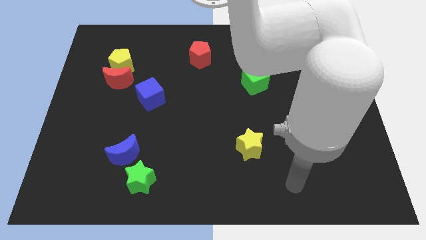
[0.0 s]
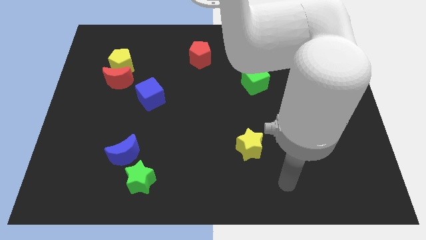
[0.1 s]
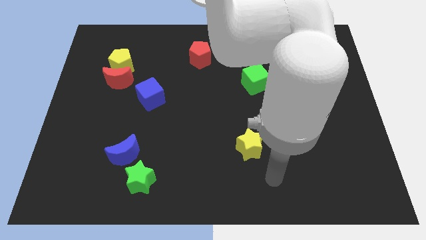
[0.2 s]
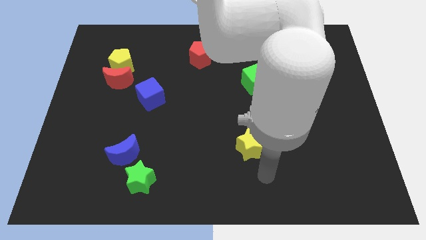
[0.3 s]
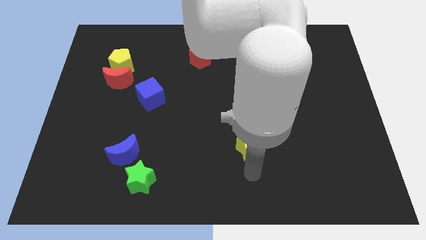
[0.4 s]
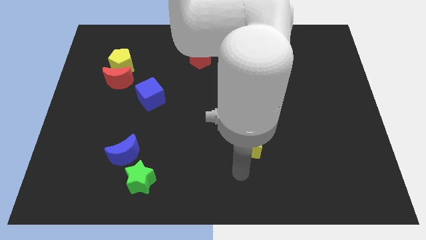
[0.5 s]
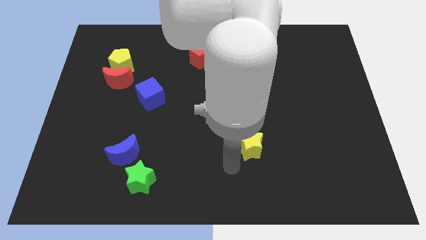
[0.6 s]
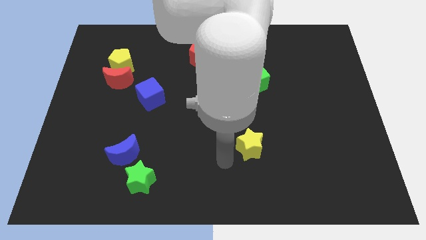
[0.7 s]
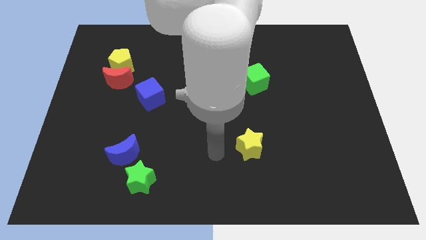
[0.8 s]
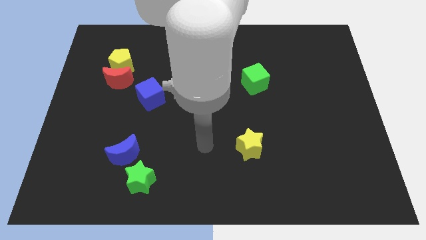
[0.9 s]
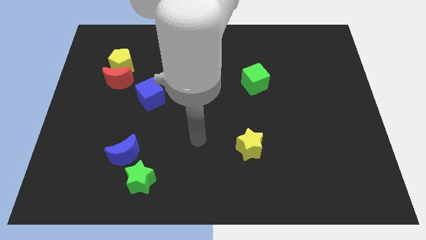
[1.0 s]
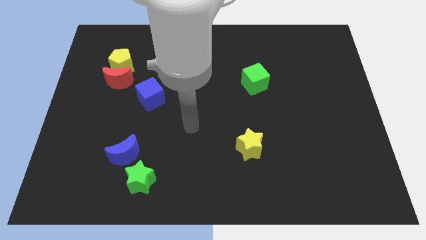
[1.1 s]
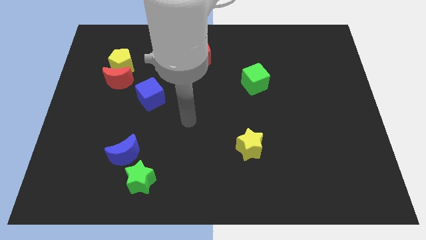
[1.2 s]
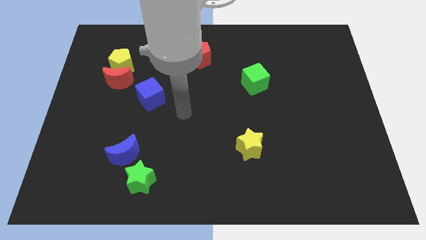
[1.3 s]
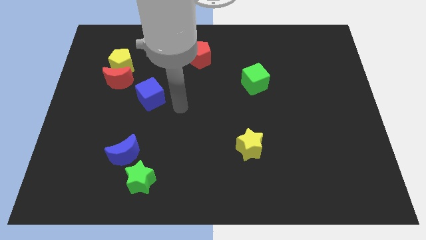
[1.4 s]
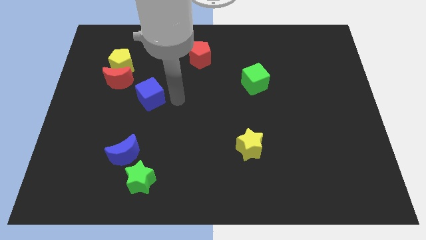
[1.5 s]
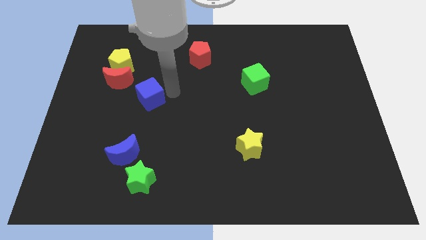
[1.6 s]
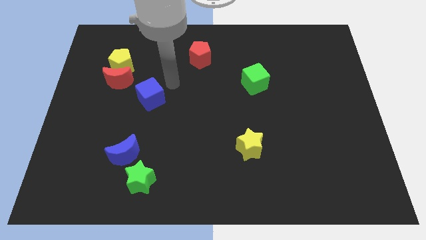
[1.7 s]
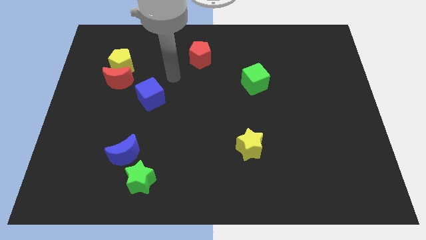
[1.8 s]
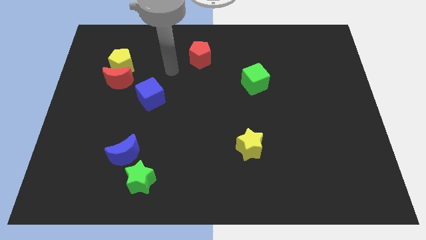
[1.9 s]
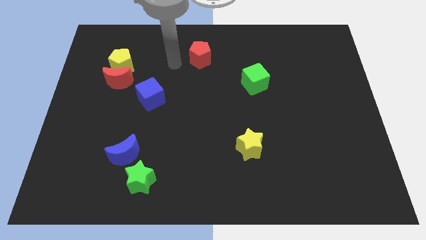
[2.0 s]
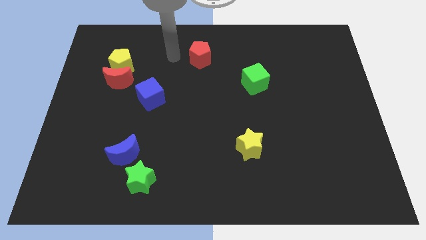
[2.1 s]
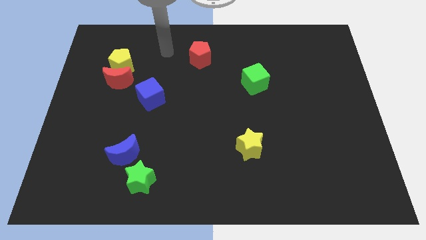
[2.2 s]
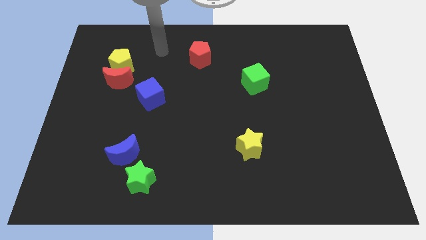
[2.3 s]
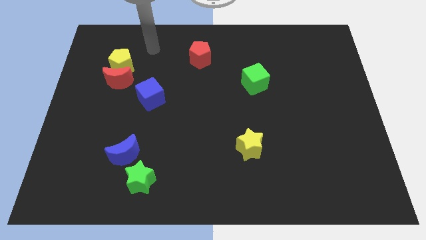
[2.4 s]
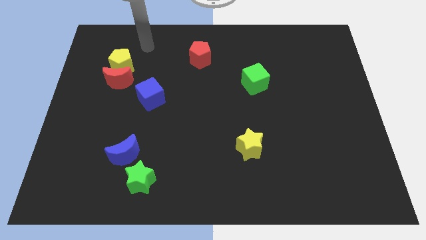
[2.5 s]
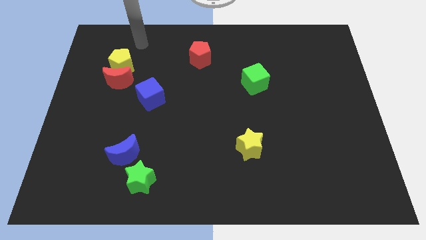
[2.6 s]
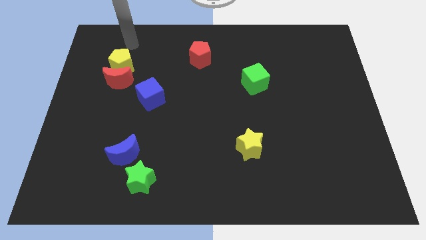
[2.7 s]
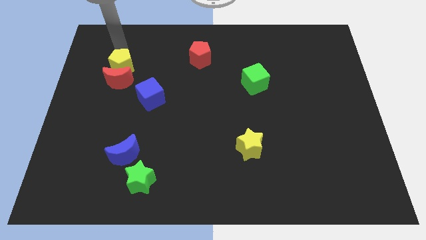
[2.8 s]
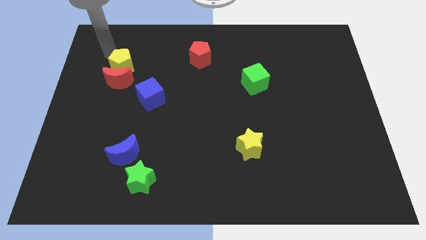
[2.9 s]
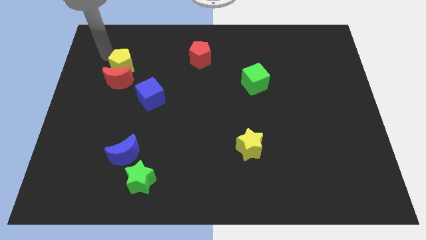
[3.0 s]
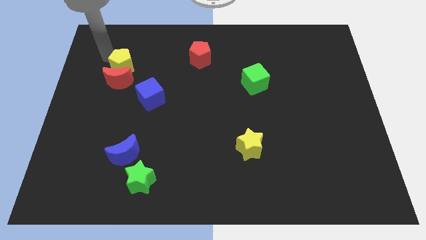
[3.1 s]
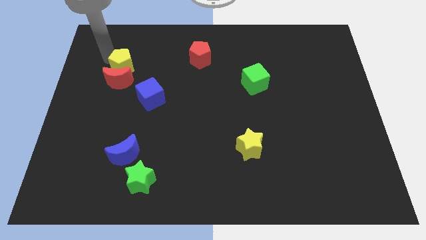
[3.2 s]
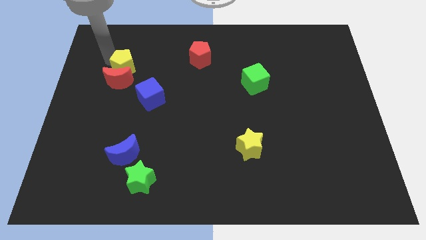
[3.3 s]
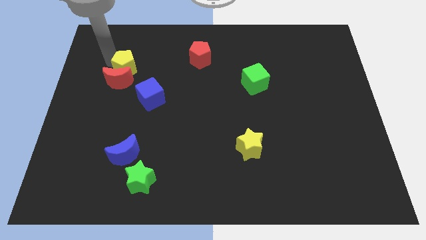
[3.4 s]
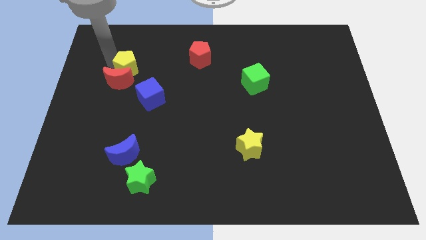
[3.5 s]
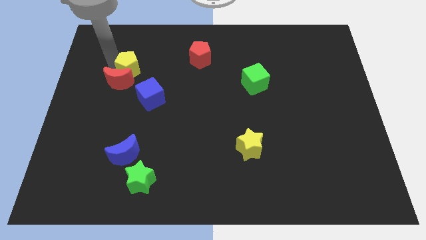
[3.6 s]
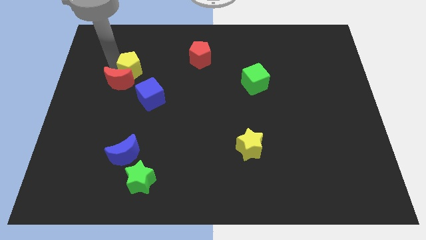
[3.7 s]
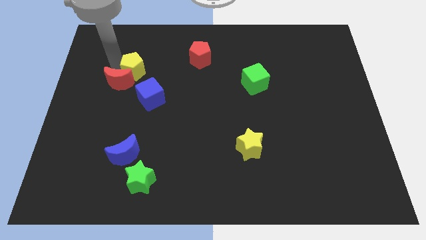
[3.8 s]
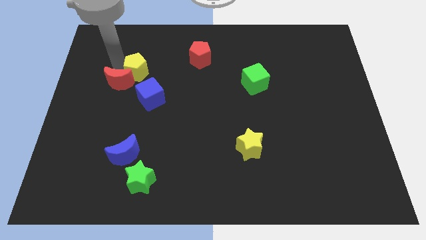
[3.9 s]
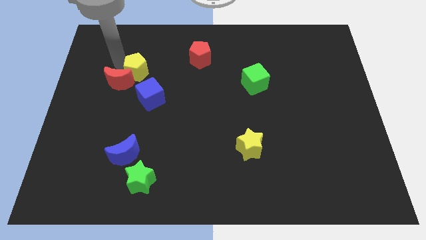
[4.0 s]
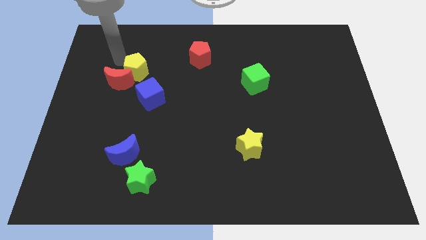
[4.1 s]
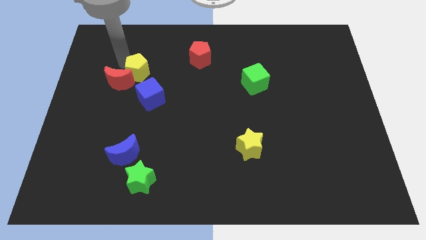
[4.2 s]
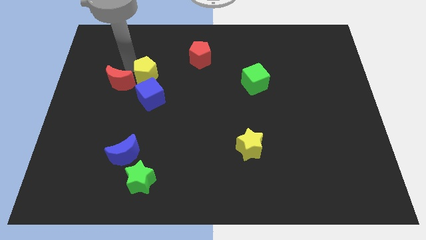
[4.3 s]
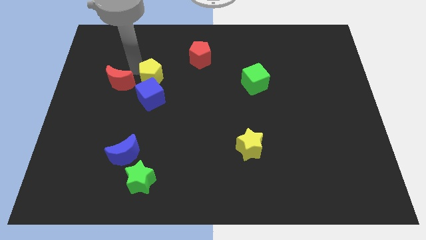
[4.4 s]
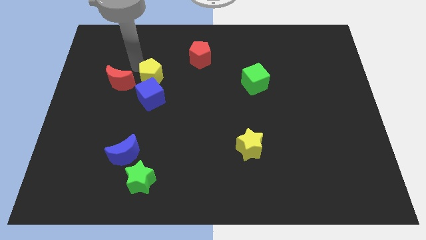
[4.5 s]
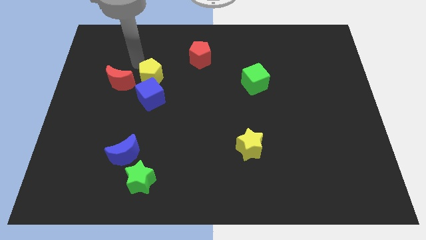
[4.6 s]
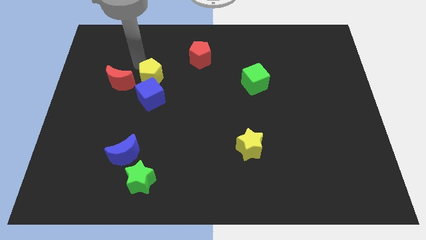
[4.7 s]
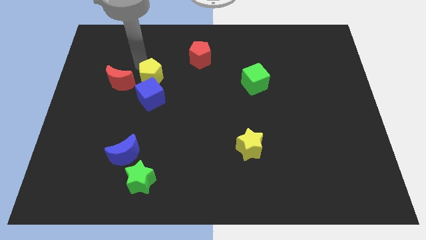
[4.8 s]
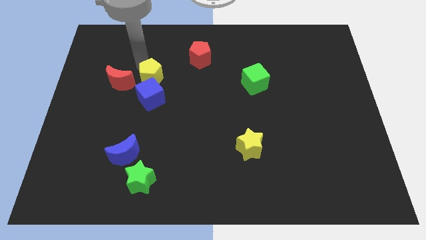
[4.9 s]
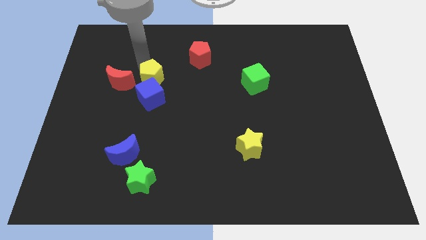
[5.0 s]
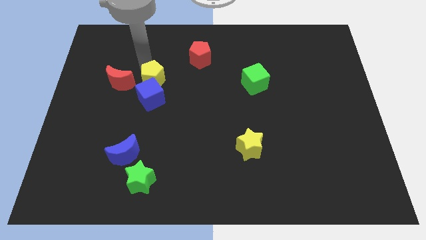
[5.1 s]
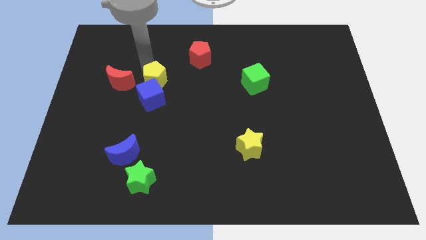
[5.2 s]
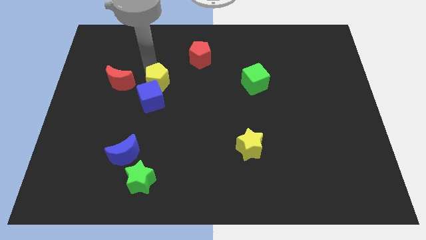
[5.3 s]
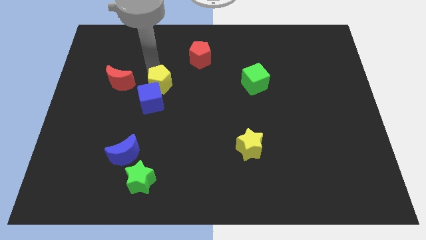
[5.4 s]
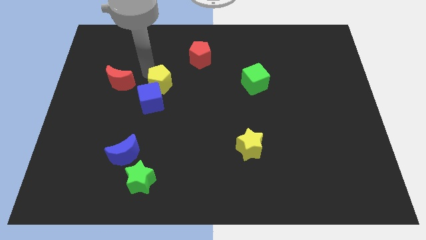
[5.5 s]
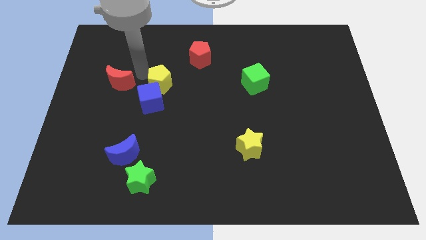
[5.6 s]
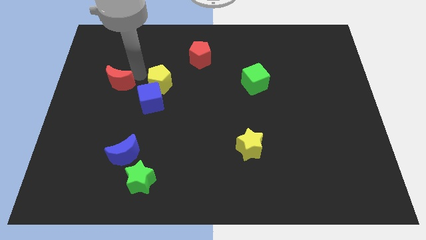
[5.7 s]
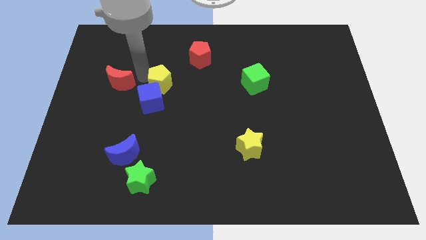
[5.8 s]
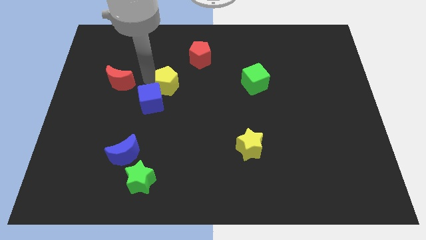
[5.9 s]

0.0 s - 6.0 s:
put the yellow pentagon to the center of the board
